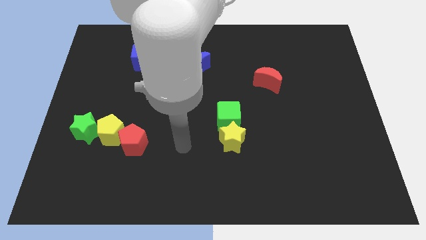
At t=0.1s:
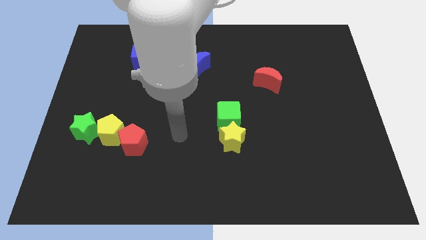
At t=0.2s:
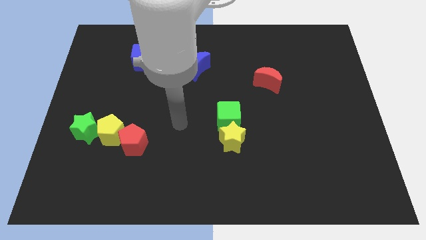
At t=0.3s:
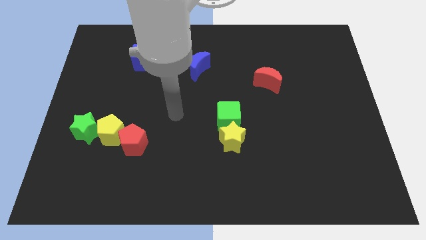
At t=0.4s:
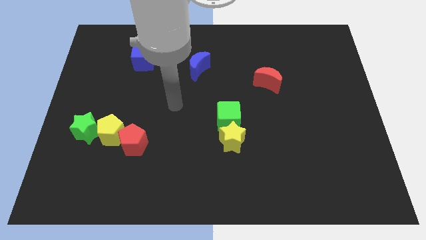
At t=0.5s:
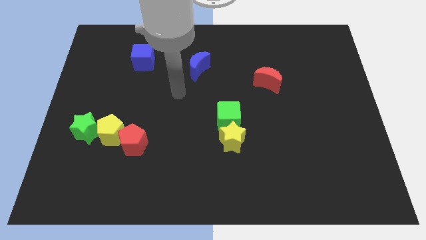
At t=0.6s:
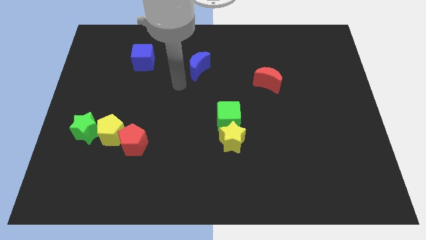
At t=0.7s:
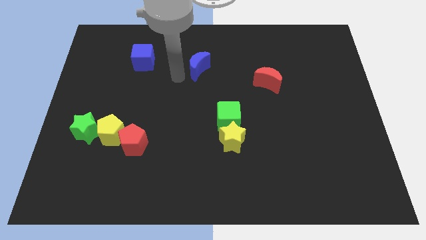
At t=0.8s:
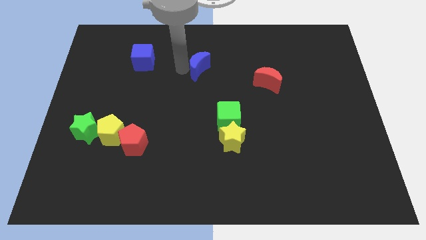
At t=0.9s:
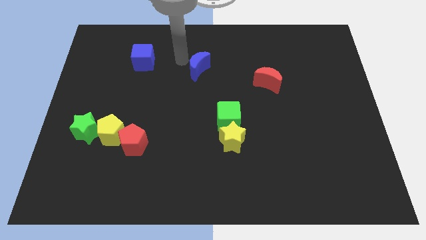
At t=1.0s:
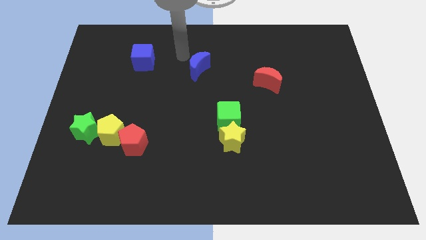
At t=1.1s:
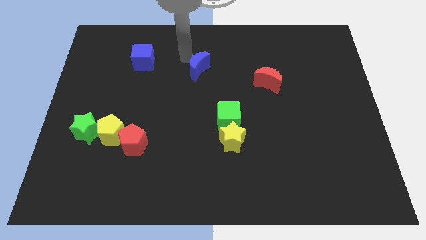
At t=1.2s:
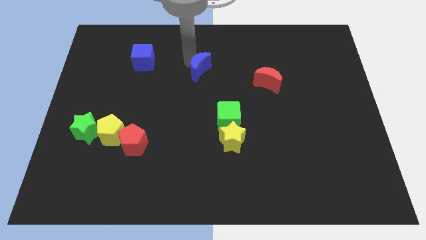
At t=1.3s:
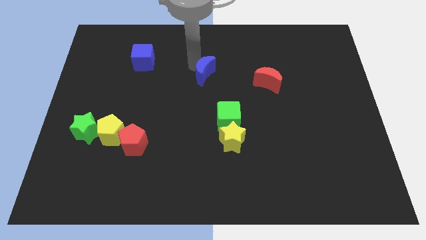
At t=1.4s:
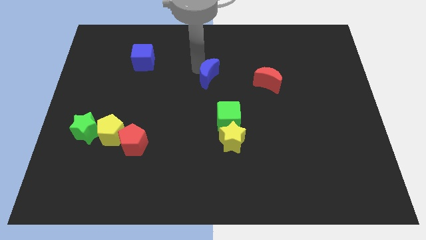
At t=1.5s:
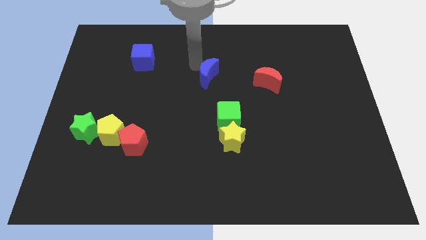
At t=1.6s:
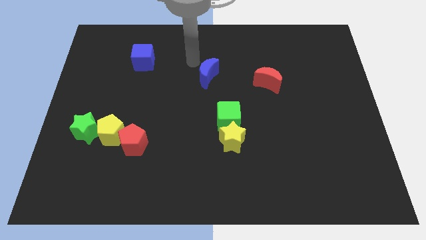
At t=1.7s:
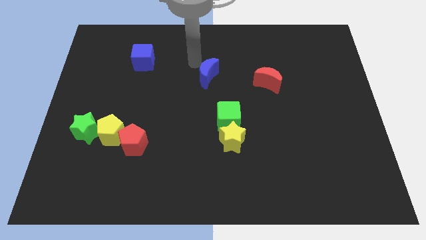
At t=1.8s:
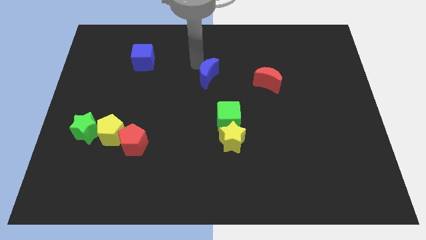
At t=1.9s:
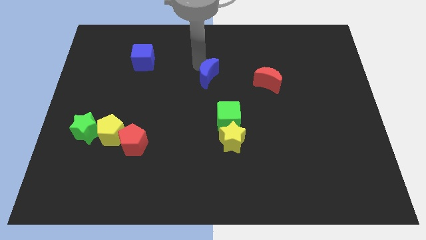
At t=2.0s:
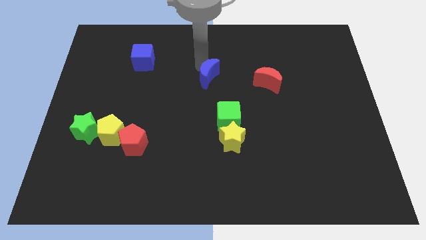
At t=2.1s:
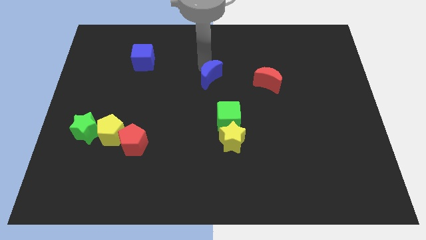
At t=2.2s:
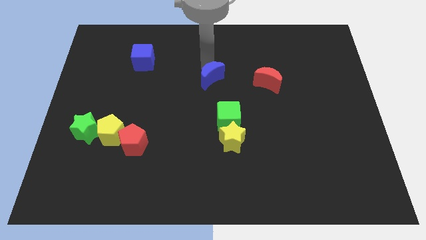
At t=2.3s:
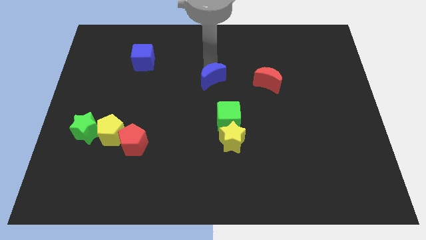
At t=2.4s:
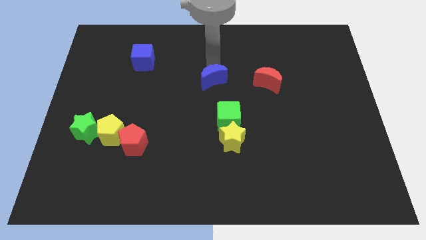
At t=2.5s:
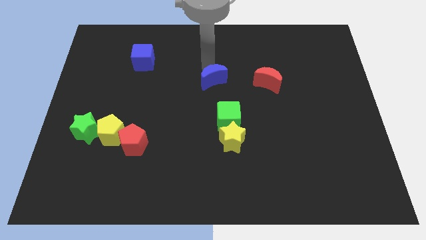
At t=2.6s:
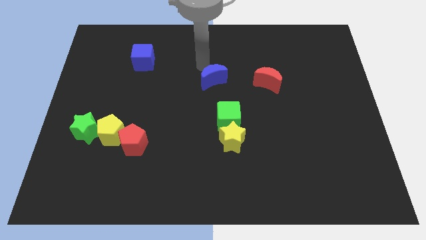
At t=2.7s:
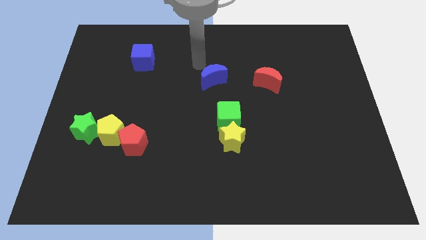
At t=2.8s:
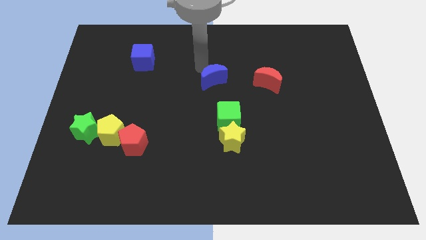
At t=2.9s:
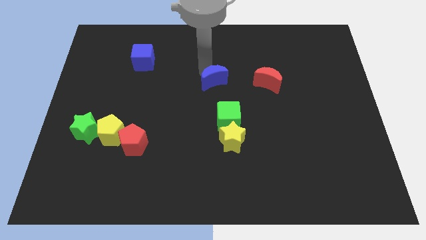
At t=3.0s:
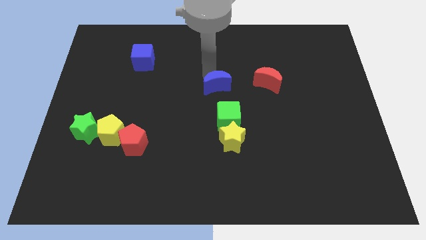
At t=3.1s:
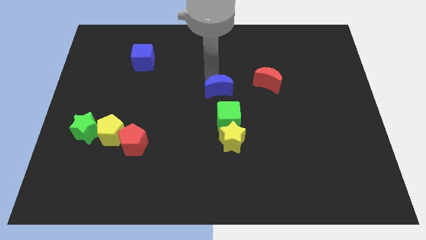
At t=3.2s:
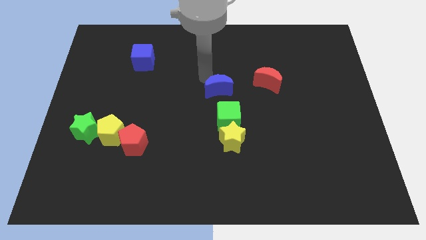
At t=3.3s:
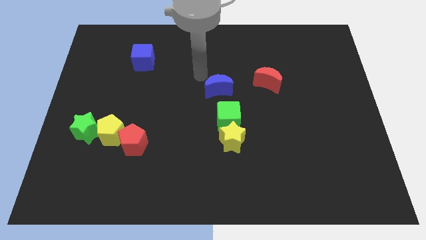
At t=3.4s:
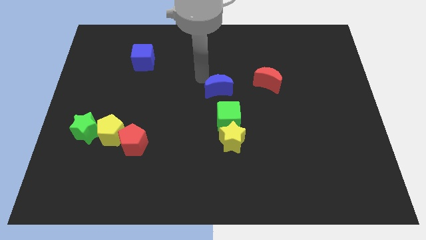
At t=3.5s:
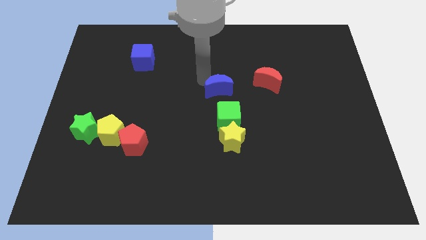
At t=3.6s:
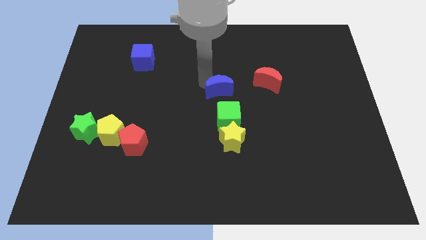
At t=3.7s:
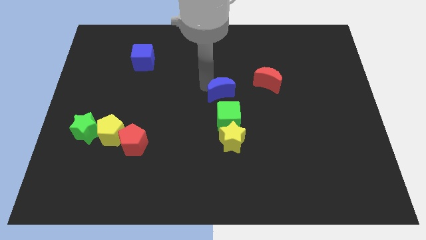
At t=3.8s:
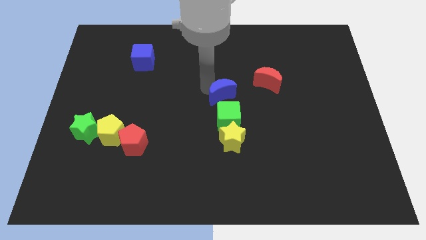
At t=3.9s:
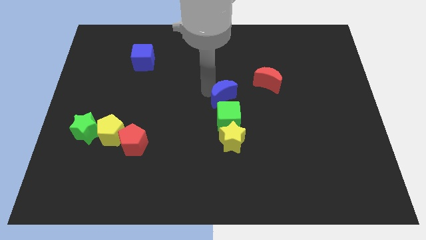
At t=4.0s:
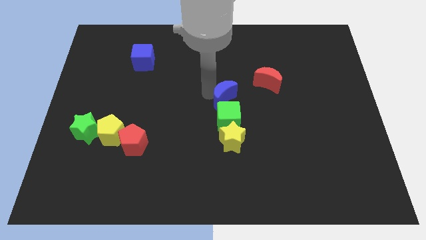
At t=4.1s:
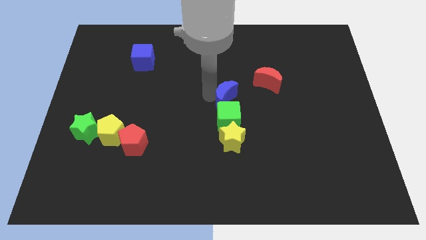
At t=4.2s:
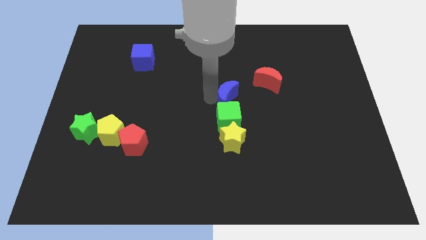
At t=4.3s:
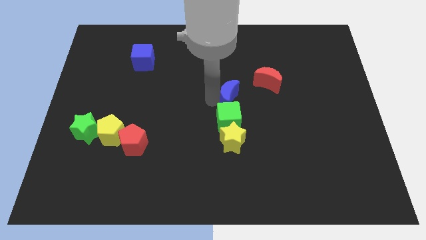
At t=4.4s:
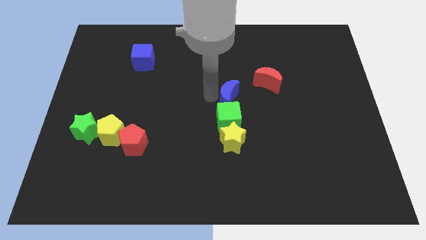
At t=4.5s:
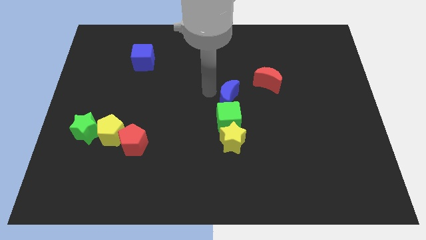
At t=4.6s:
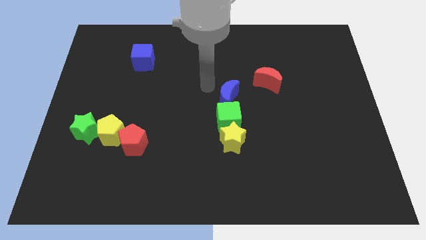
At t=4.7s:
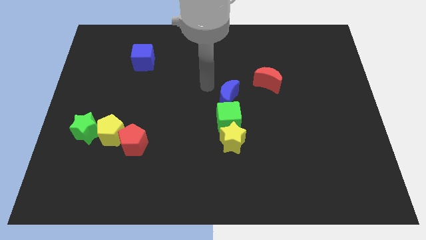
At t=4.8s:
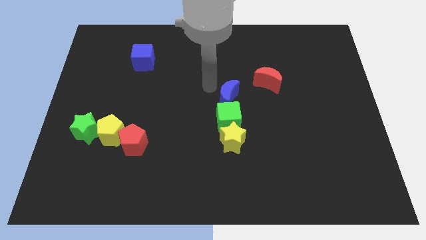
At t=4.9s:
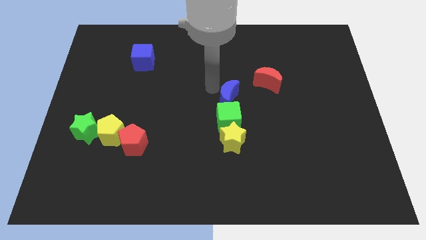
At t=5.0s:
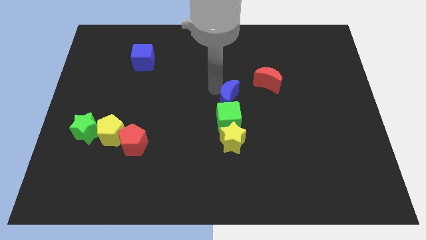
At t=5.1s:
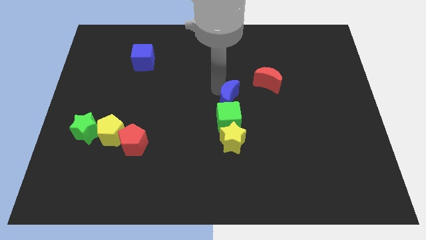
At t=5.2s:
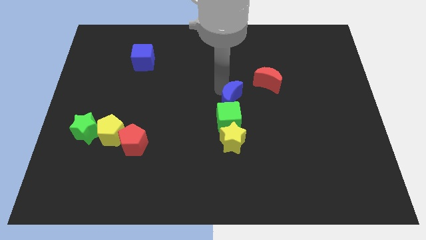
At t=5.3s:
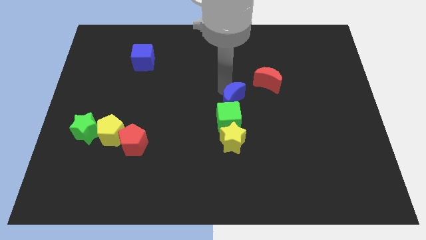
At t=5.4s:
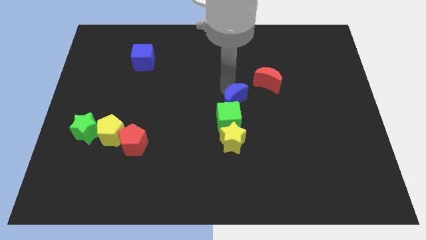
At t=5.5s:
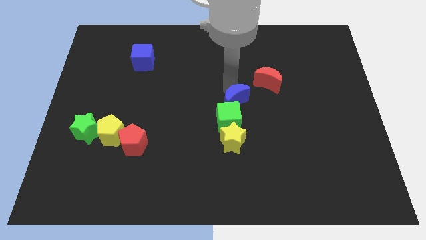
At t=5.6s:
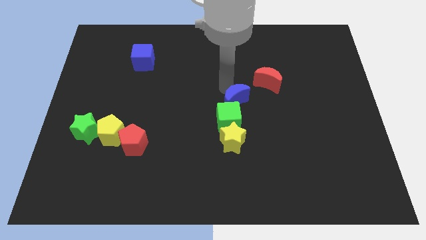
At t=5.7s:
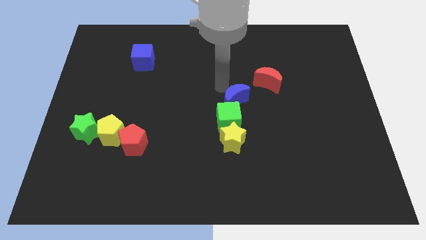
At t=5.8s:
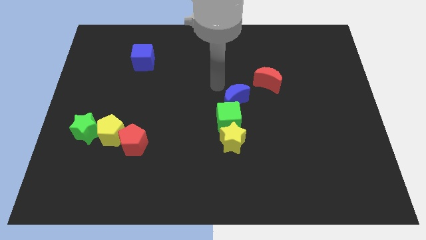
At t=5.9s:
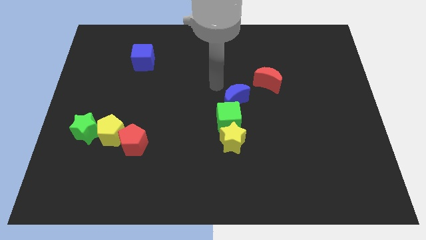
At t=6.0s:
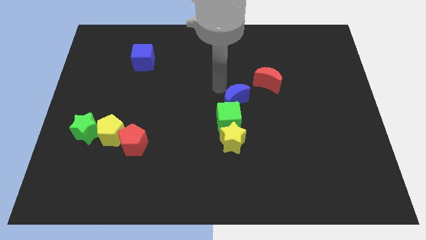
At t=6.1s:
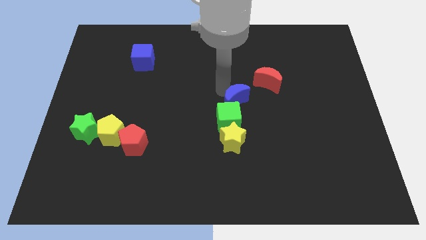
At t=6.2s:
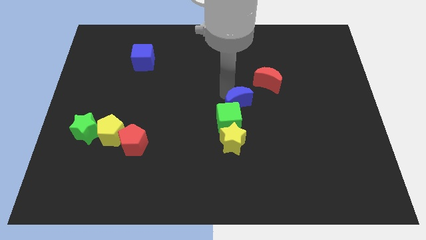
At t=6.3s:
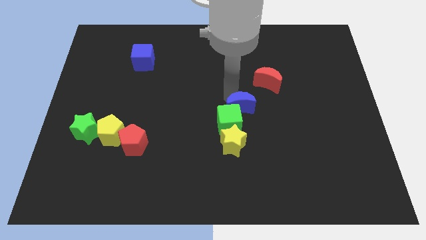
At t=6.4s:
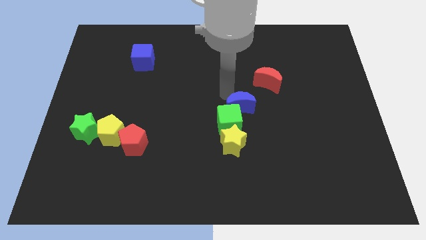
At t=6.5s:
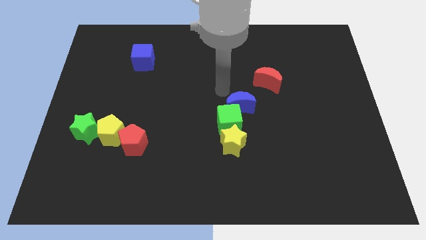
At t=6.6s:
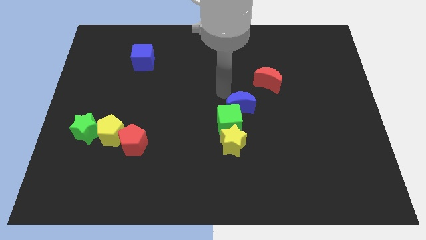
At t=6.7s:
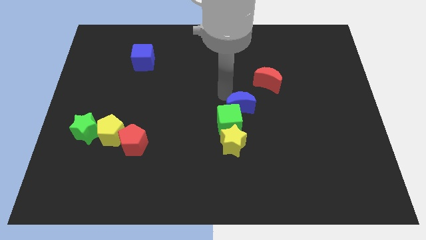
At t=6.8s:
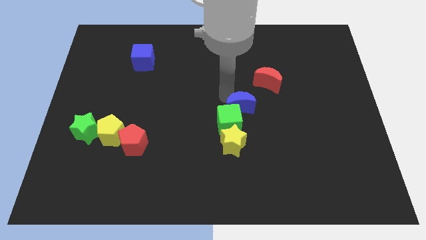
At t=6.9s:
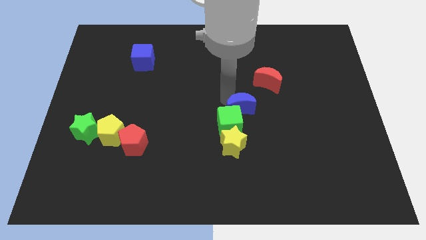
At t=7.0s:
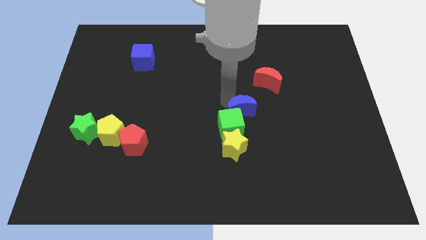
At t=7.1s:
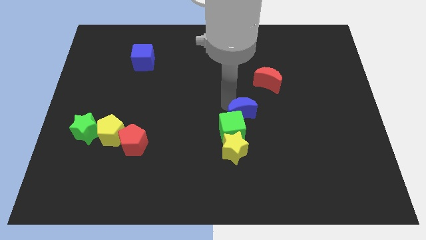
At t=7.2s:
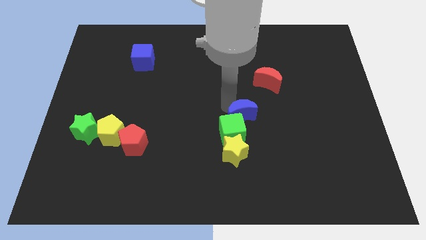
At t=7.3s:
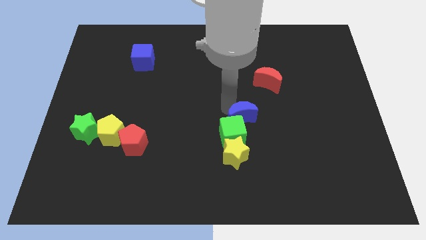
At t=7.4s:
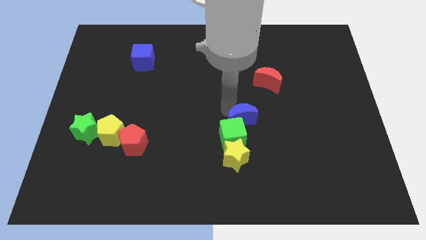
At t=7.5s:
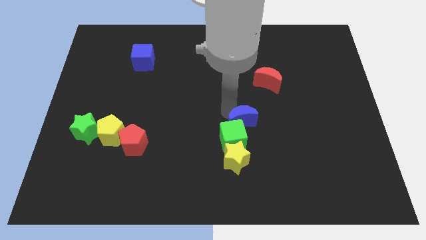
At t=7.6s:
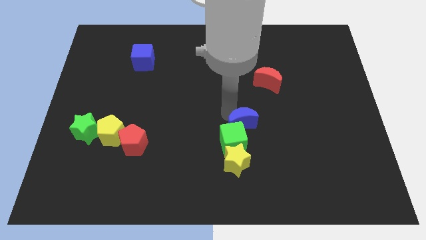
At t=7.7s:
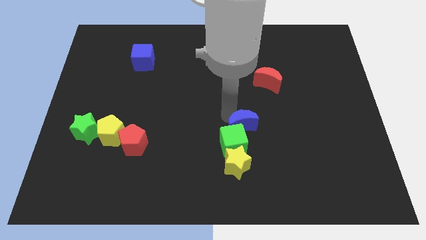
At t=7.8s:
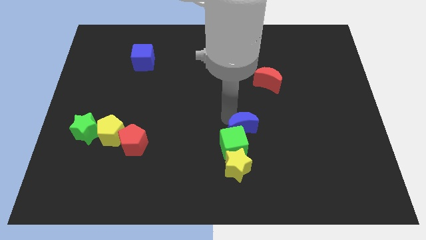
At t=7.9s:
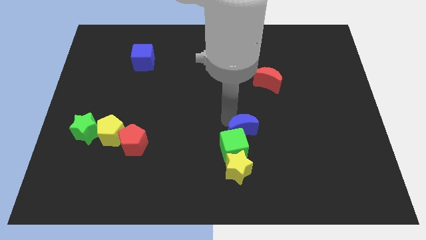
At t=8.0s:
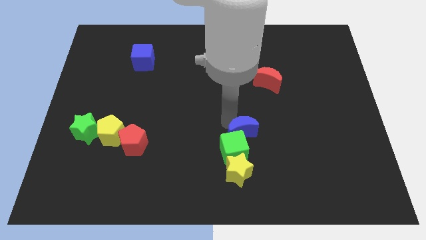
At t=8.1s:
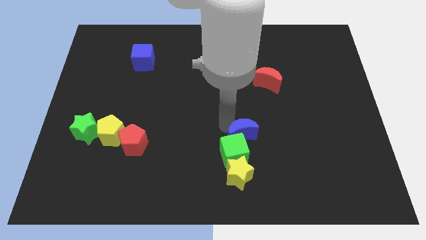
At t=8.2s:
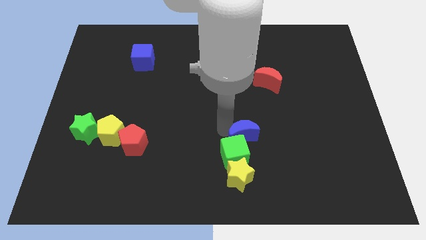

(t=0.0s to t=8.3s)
move the blue moon down and right
